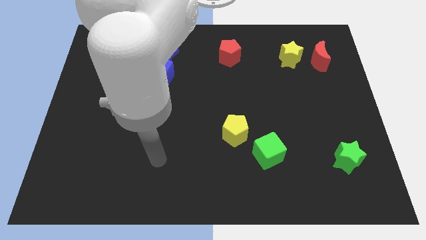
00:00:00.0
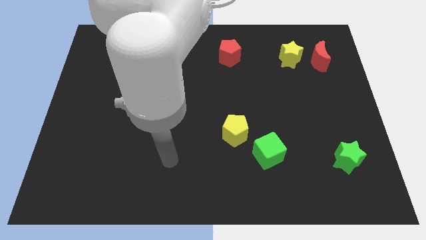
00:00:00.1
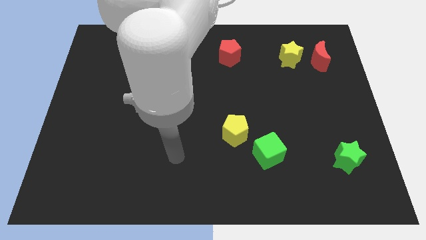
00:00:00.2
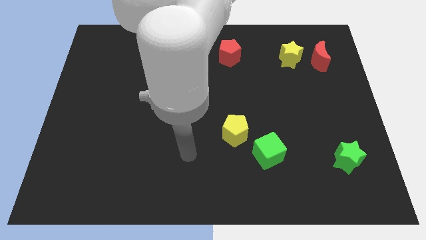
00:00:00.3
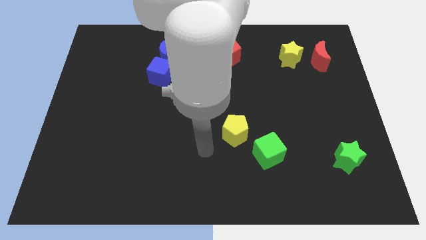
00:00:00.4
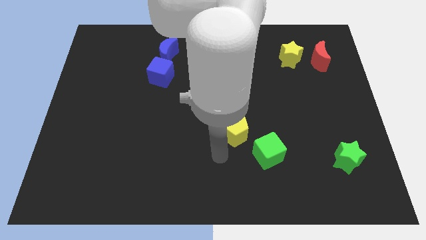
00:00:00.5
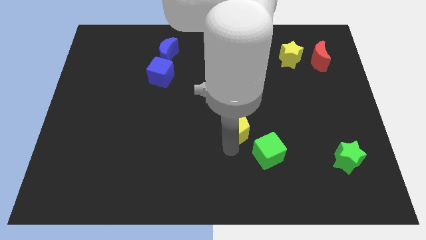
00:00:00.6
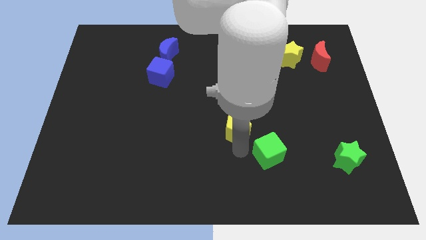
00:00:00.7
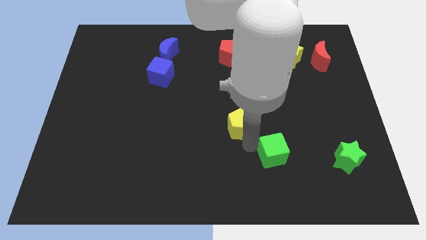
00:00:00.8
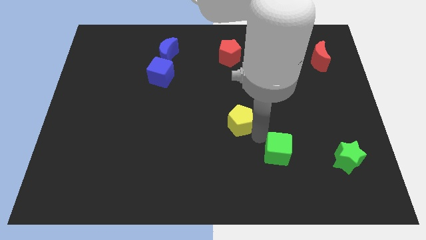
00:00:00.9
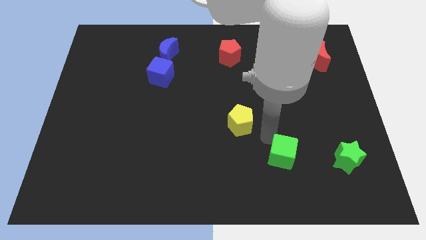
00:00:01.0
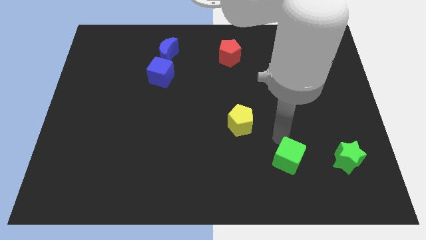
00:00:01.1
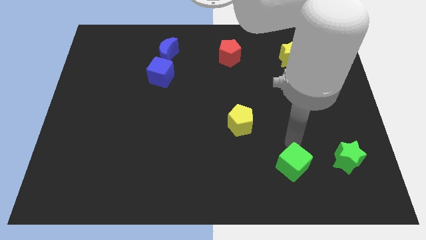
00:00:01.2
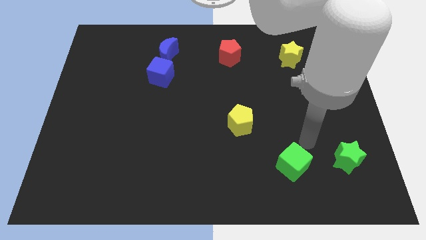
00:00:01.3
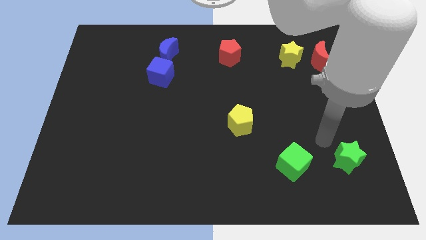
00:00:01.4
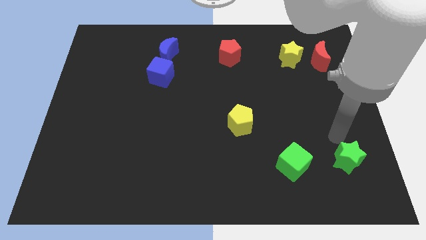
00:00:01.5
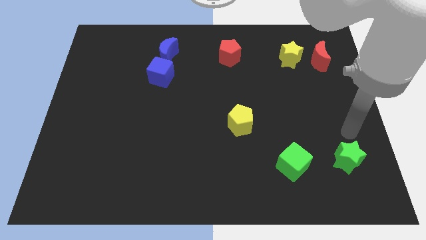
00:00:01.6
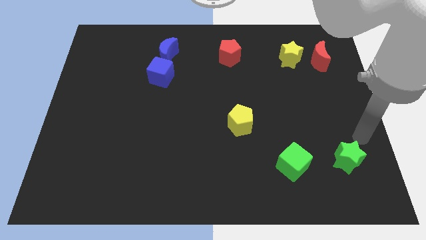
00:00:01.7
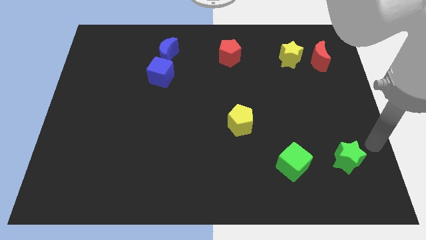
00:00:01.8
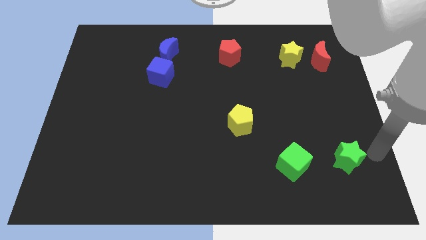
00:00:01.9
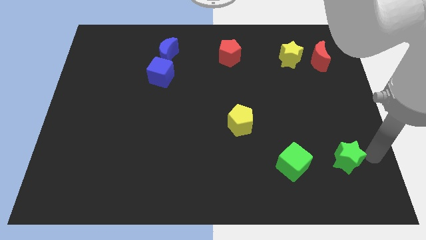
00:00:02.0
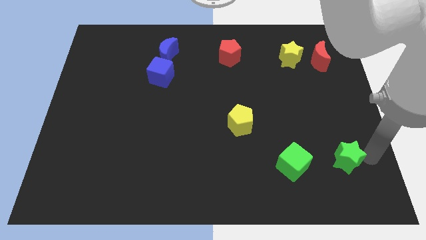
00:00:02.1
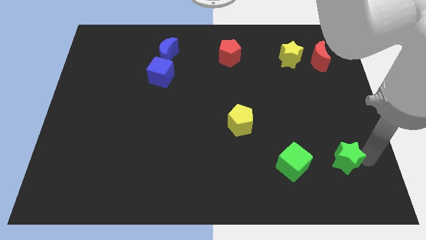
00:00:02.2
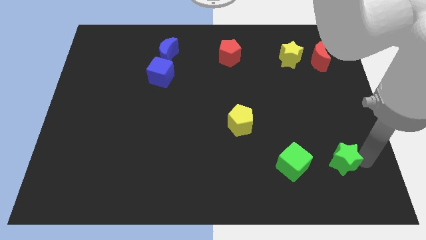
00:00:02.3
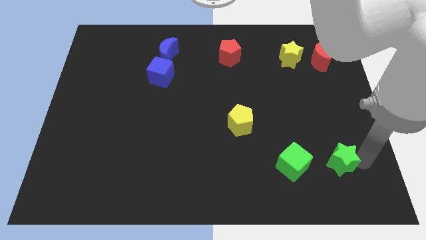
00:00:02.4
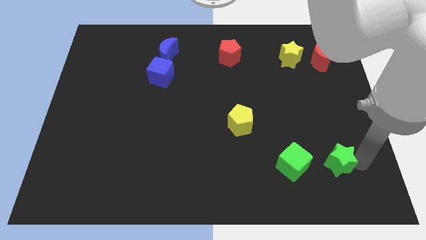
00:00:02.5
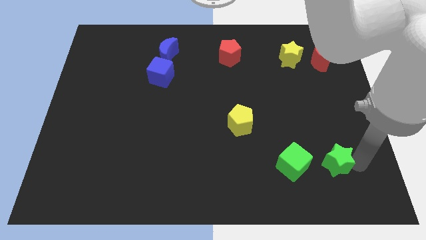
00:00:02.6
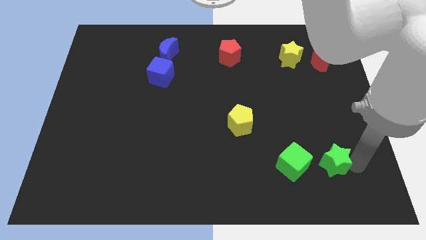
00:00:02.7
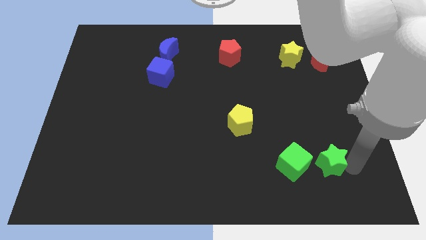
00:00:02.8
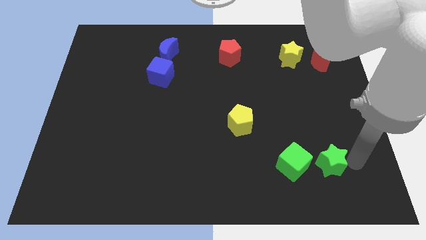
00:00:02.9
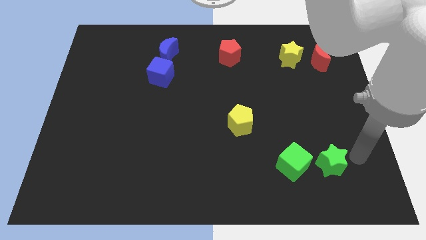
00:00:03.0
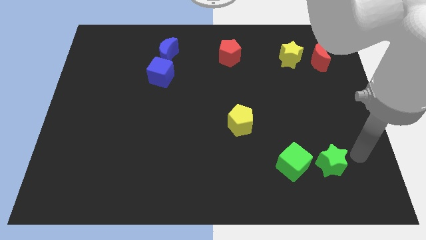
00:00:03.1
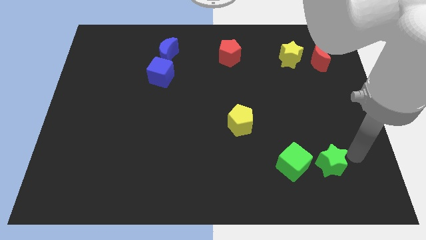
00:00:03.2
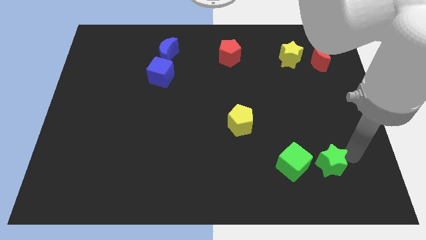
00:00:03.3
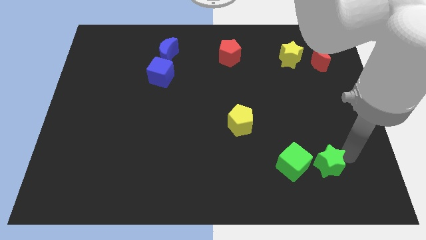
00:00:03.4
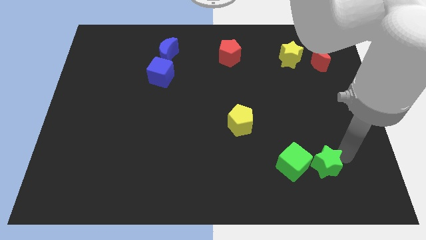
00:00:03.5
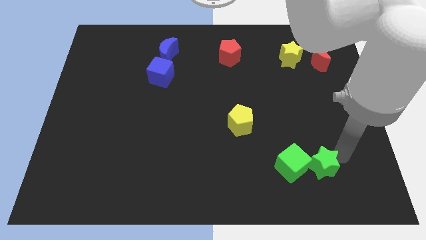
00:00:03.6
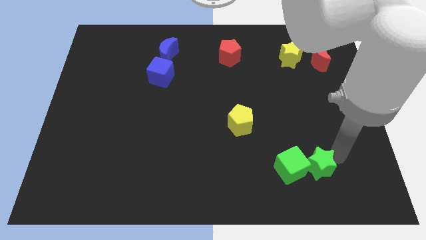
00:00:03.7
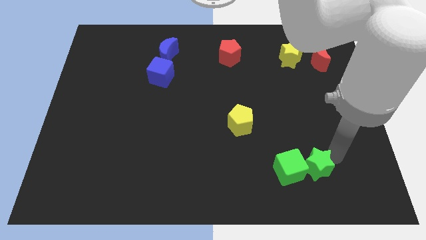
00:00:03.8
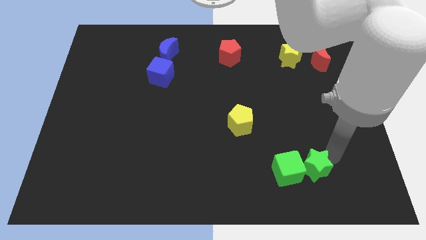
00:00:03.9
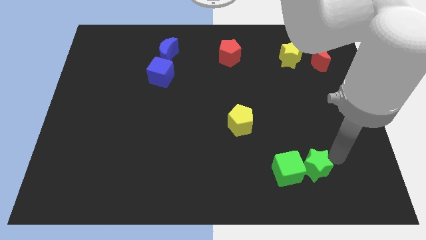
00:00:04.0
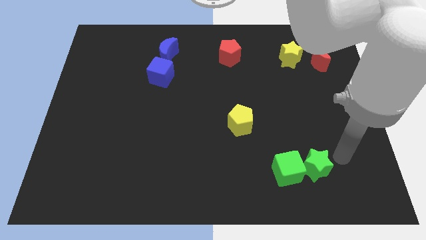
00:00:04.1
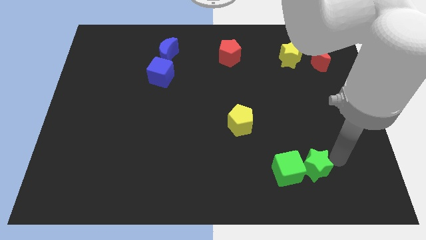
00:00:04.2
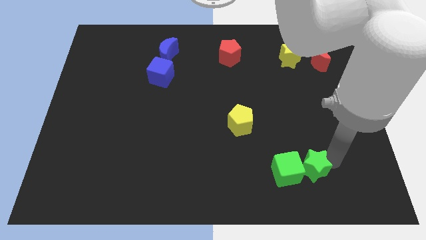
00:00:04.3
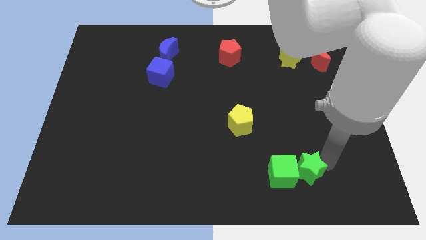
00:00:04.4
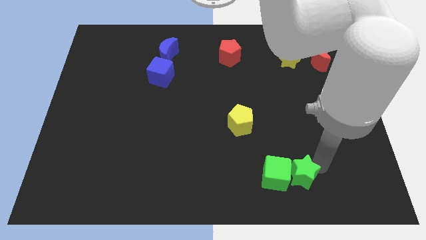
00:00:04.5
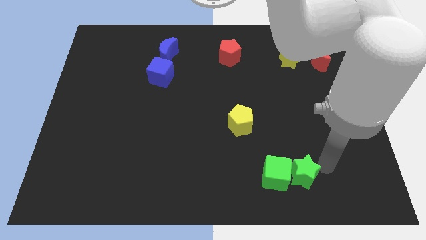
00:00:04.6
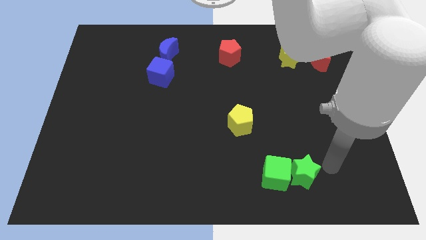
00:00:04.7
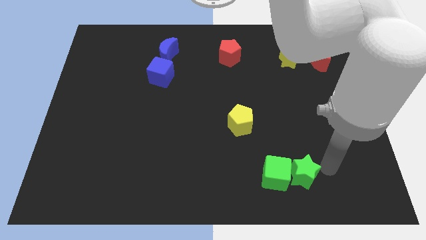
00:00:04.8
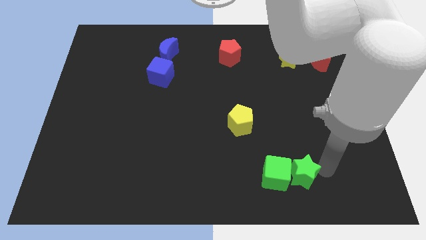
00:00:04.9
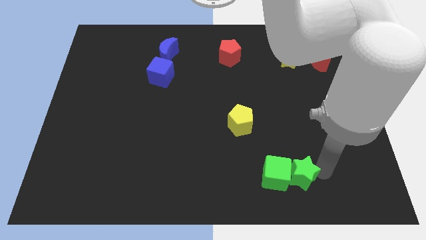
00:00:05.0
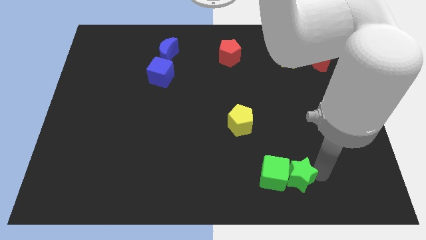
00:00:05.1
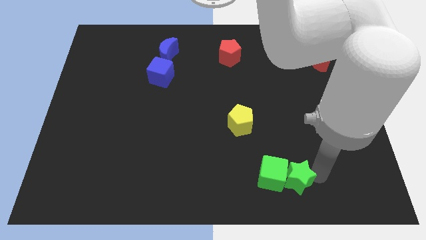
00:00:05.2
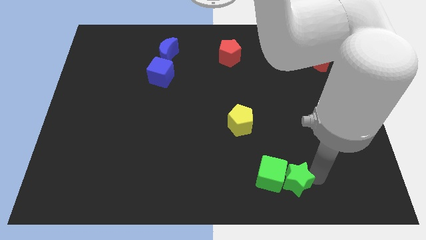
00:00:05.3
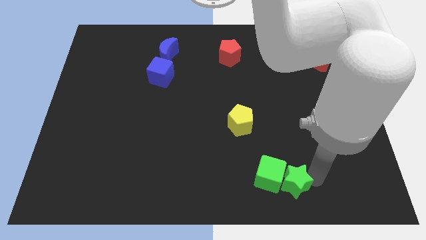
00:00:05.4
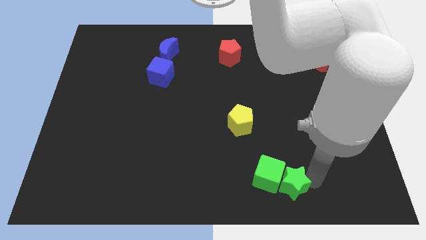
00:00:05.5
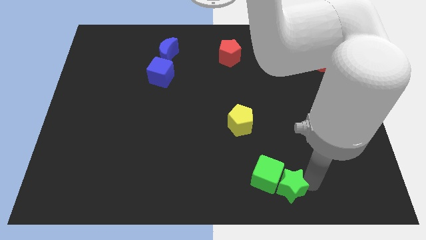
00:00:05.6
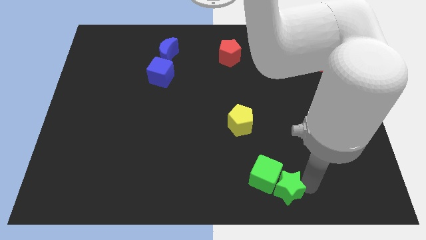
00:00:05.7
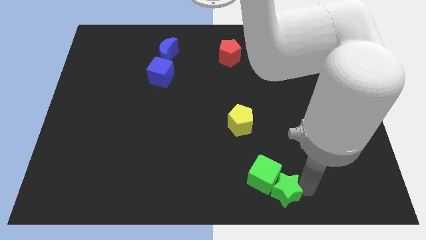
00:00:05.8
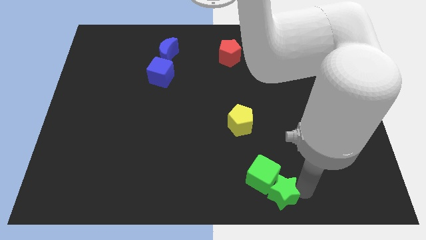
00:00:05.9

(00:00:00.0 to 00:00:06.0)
move the green star to the bottom
